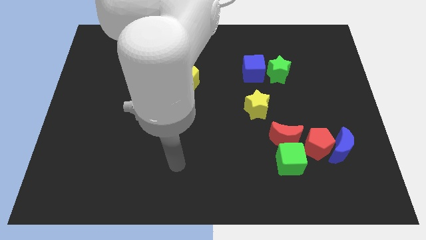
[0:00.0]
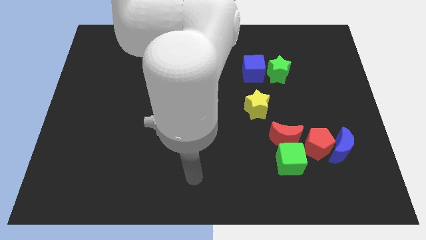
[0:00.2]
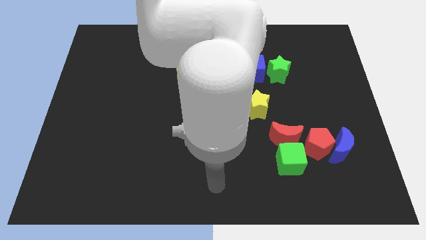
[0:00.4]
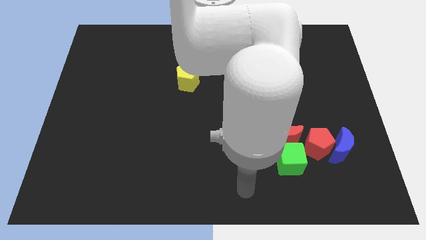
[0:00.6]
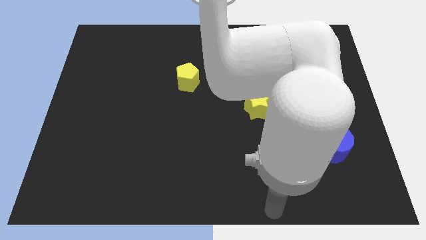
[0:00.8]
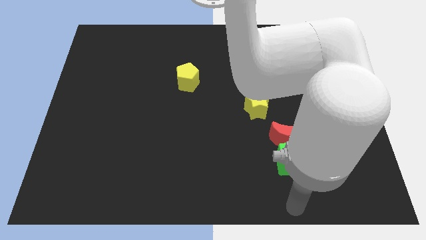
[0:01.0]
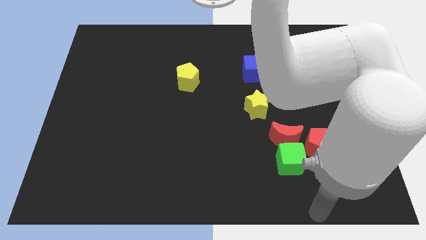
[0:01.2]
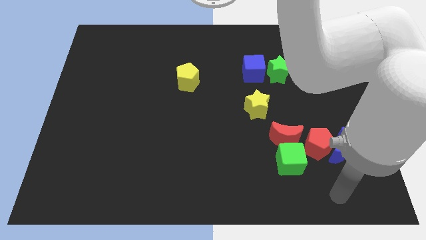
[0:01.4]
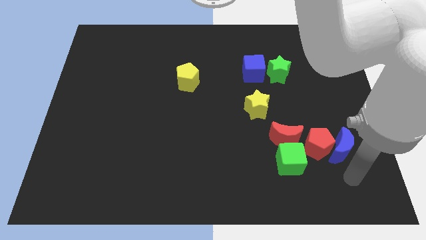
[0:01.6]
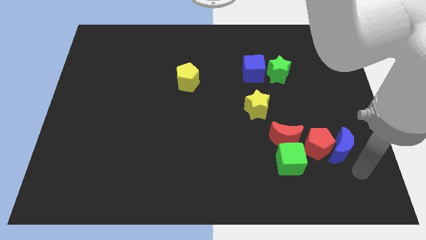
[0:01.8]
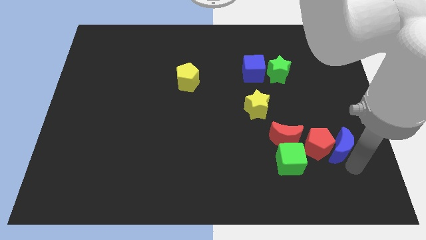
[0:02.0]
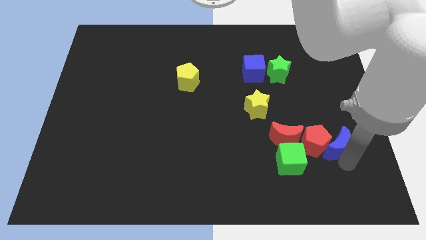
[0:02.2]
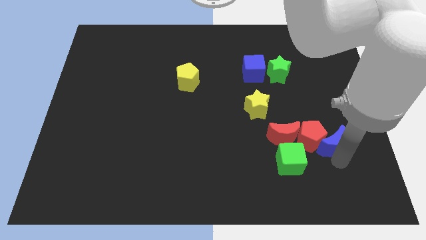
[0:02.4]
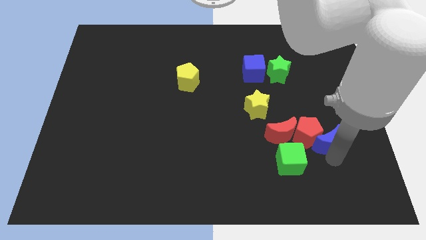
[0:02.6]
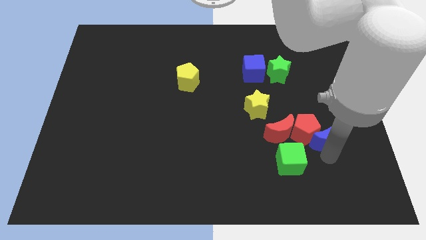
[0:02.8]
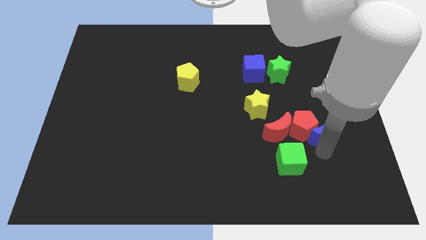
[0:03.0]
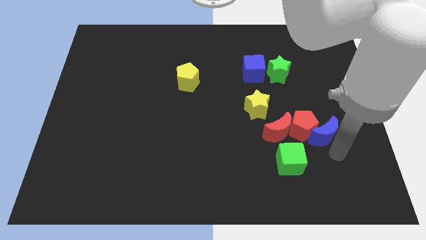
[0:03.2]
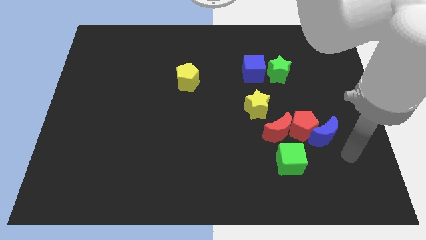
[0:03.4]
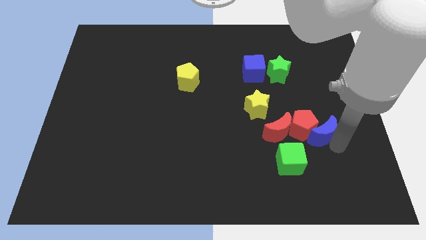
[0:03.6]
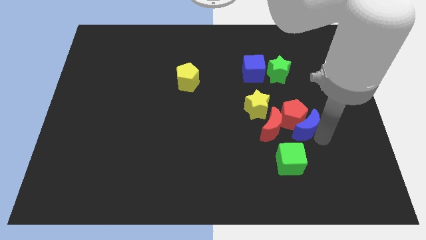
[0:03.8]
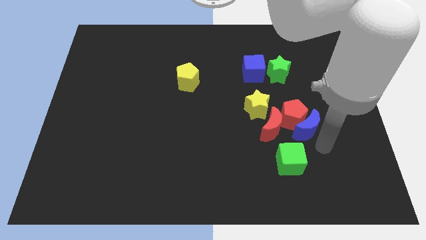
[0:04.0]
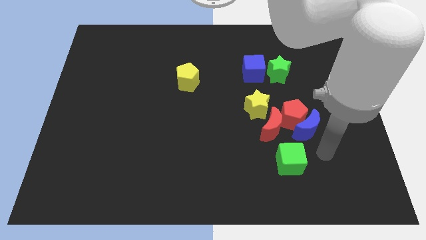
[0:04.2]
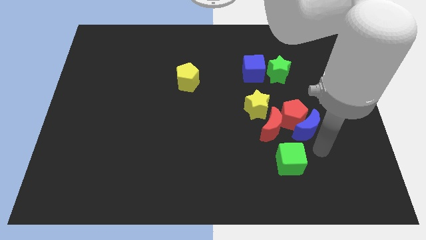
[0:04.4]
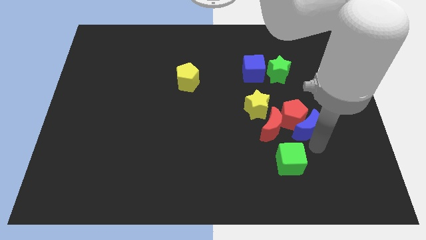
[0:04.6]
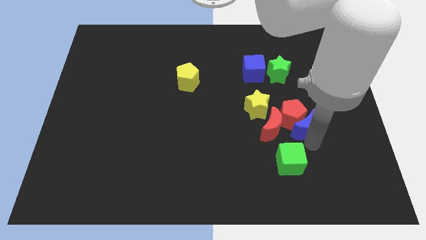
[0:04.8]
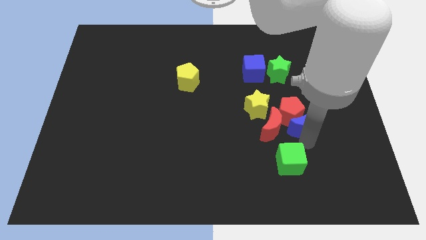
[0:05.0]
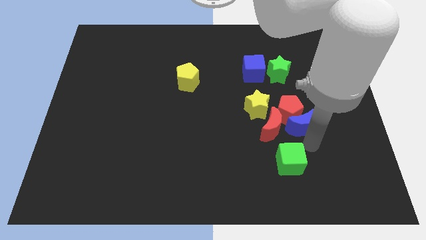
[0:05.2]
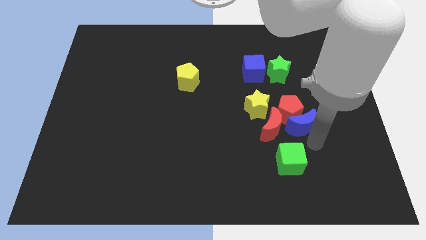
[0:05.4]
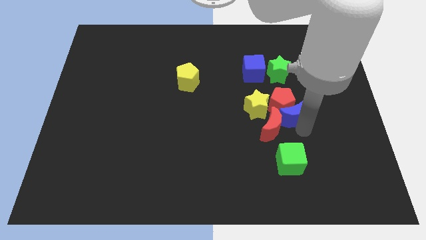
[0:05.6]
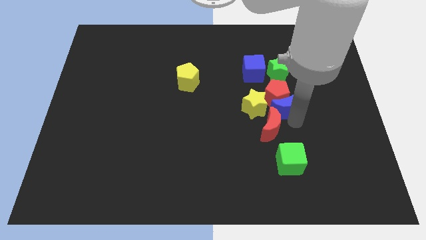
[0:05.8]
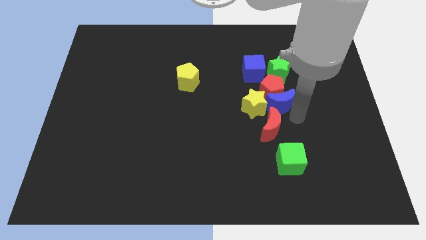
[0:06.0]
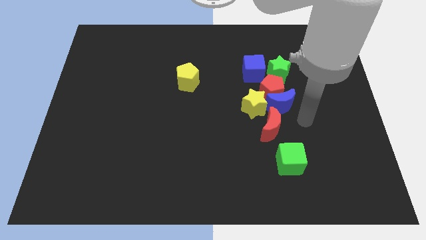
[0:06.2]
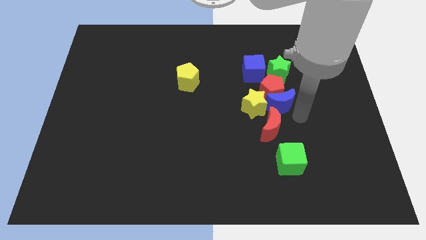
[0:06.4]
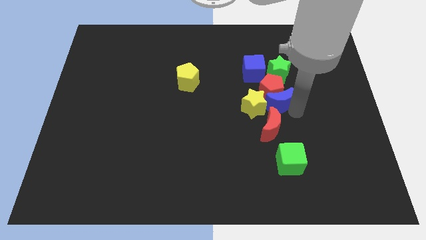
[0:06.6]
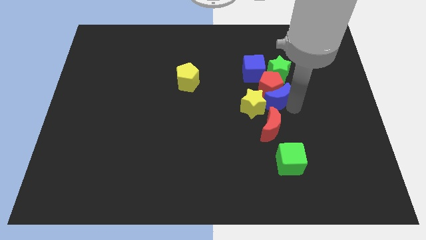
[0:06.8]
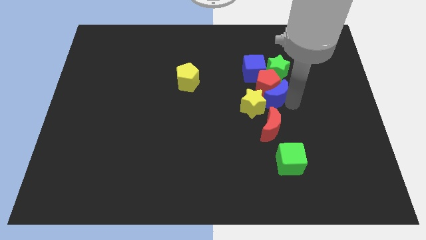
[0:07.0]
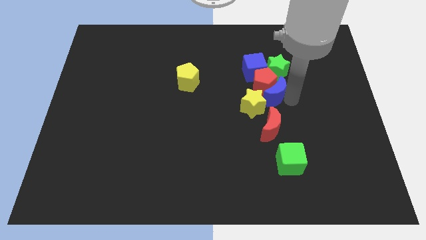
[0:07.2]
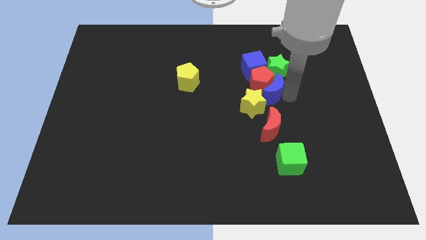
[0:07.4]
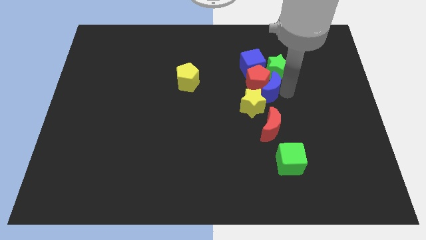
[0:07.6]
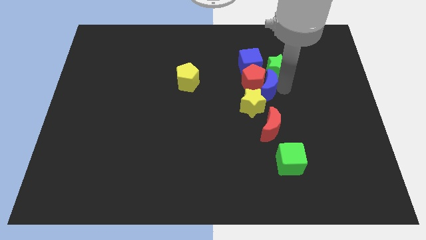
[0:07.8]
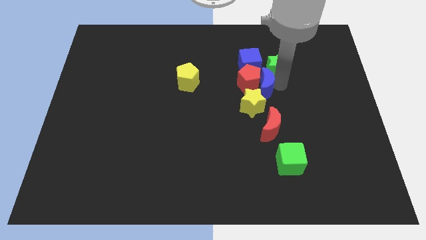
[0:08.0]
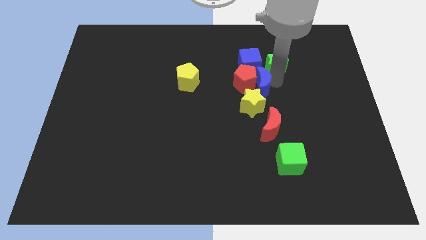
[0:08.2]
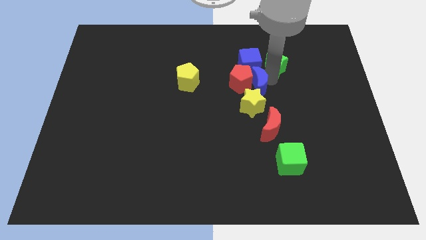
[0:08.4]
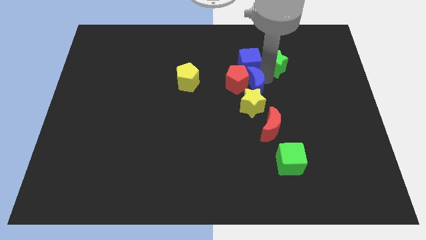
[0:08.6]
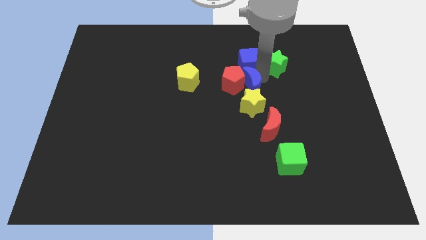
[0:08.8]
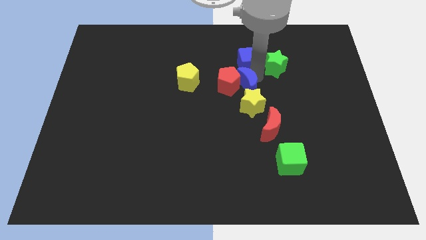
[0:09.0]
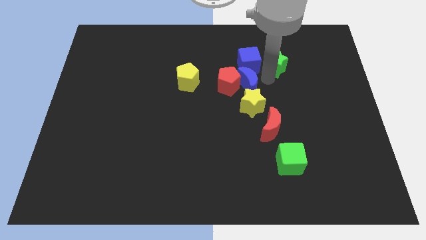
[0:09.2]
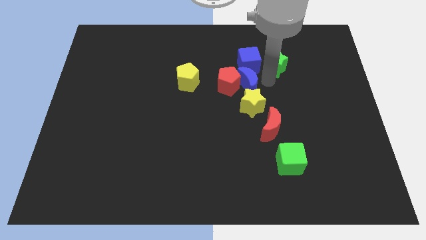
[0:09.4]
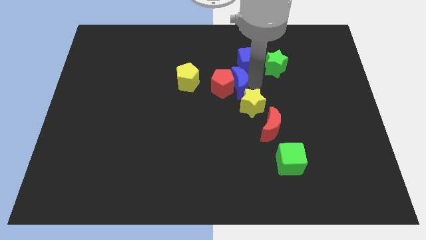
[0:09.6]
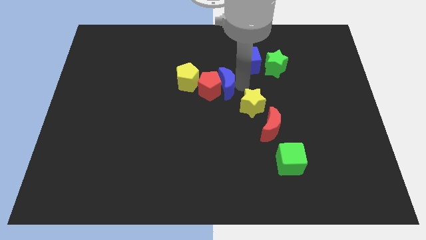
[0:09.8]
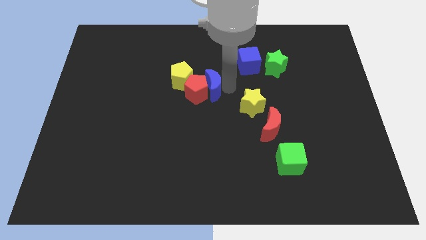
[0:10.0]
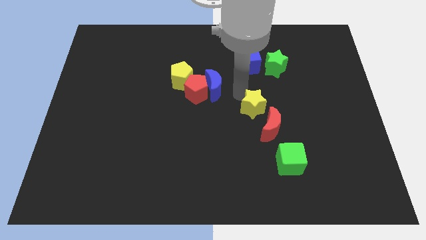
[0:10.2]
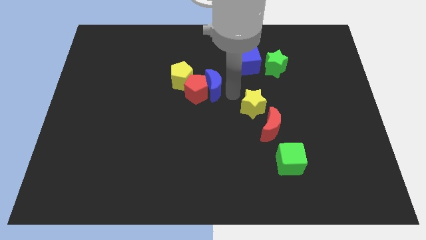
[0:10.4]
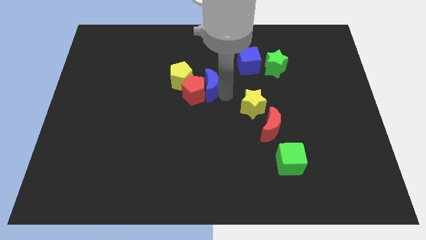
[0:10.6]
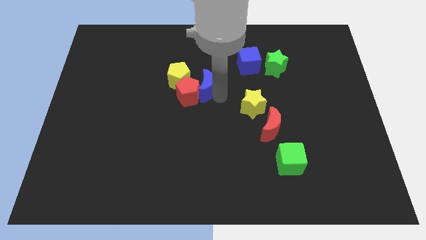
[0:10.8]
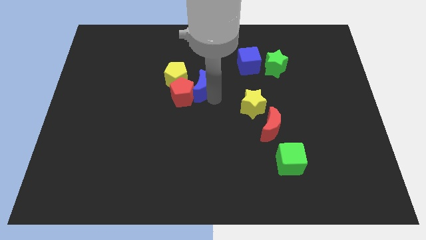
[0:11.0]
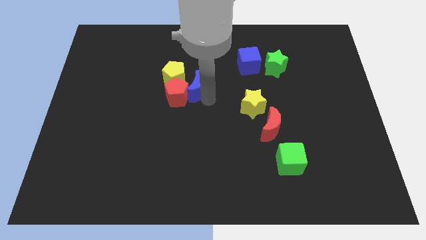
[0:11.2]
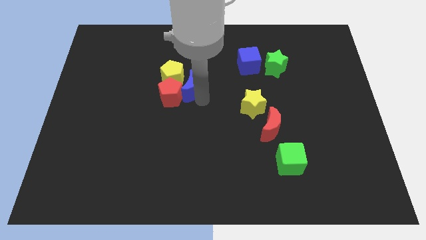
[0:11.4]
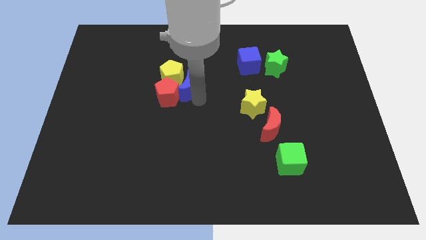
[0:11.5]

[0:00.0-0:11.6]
slide the blue moon to the yellow pentagon

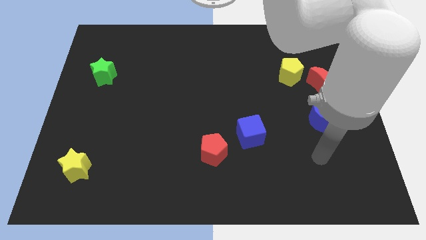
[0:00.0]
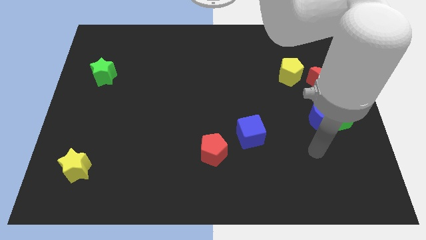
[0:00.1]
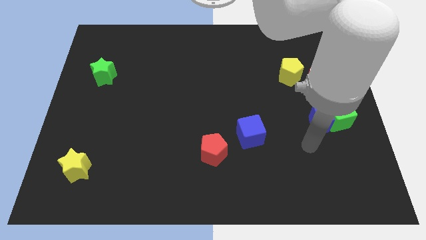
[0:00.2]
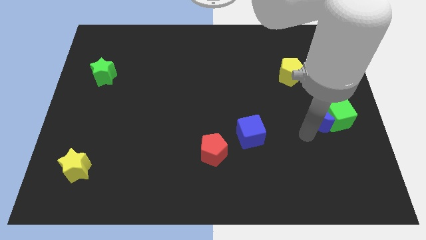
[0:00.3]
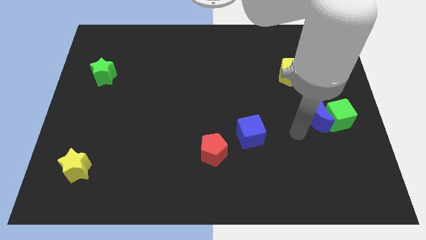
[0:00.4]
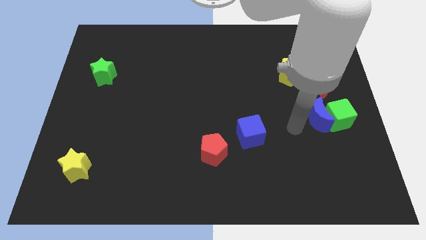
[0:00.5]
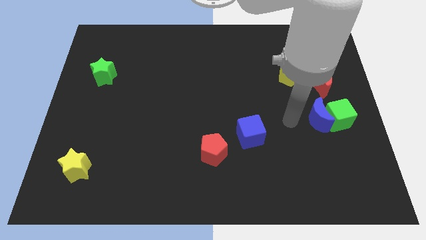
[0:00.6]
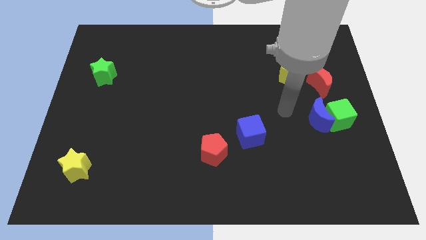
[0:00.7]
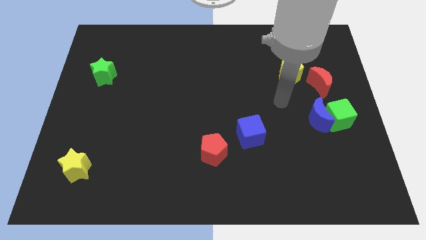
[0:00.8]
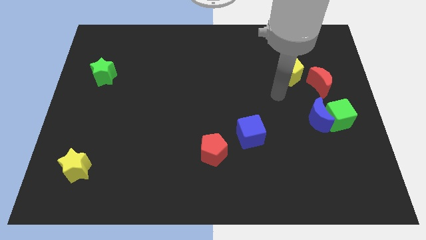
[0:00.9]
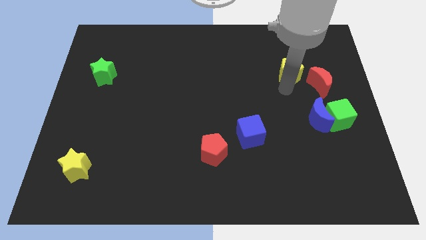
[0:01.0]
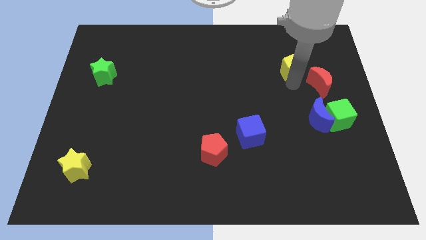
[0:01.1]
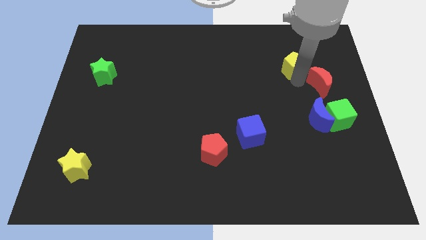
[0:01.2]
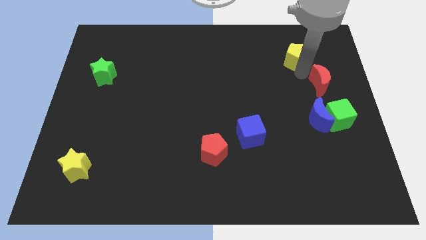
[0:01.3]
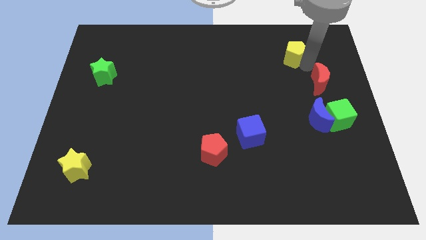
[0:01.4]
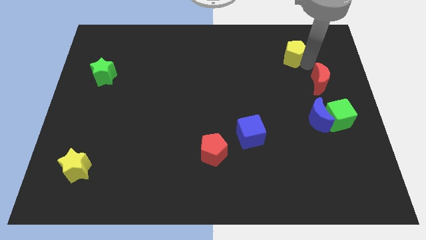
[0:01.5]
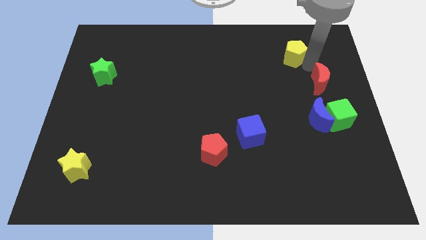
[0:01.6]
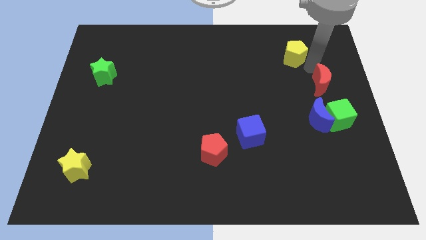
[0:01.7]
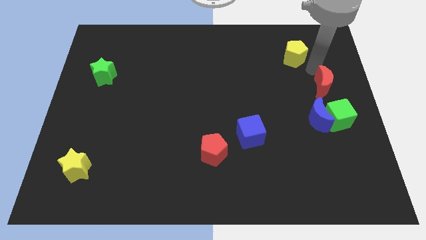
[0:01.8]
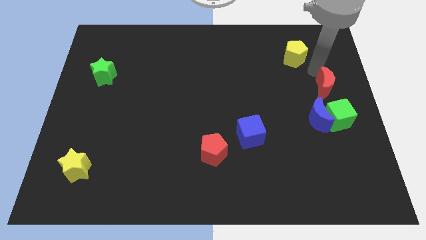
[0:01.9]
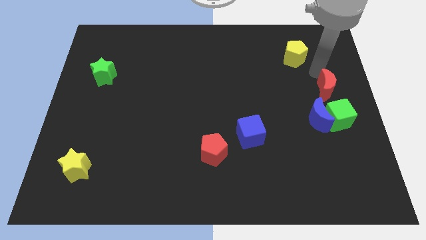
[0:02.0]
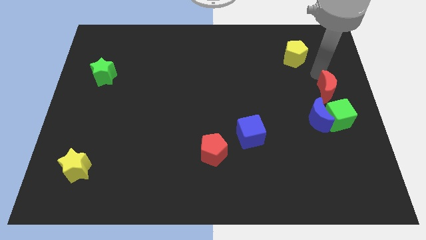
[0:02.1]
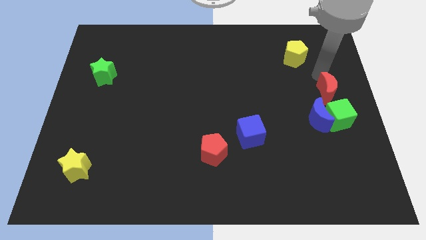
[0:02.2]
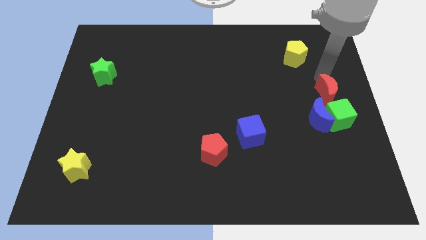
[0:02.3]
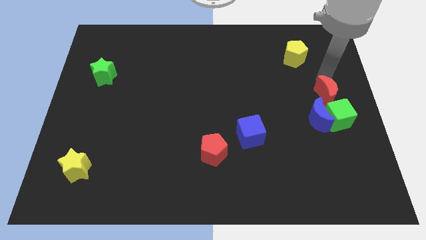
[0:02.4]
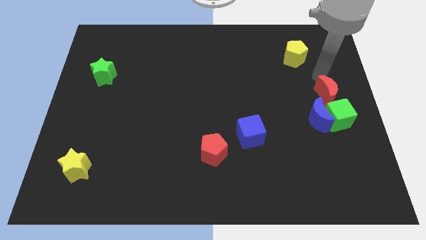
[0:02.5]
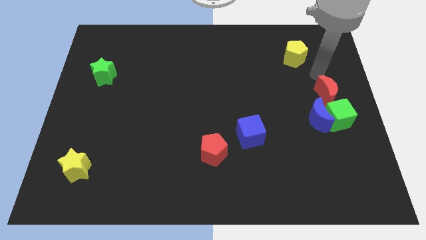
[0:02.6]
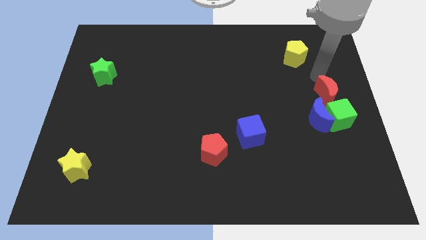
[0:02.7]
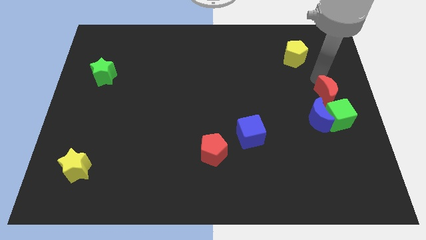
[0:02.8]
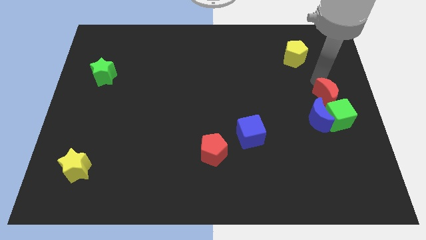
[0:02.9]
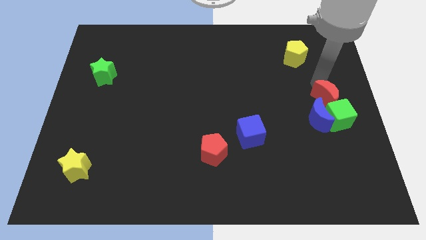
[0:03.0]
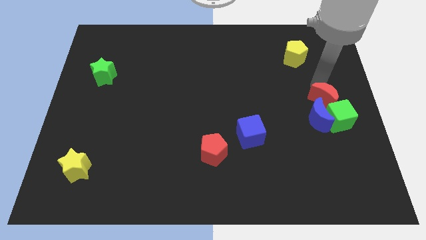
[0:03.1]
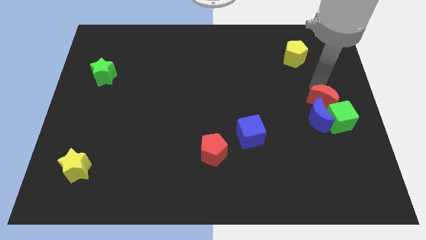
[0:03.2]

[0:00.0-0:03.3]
put the red moon towards the green cube
